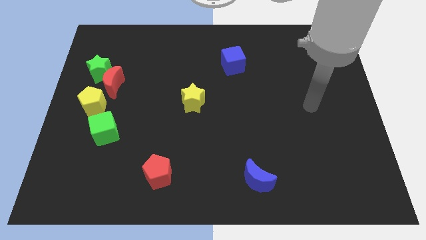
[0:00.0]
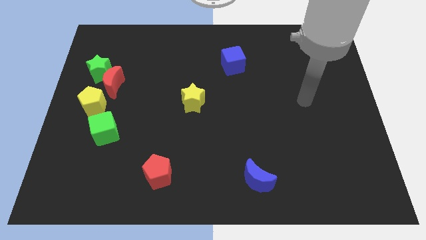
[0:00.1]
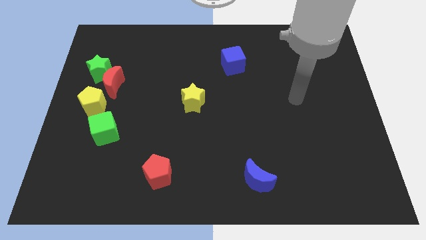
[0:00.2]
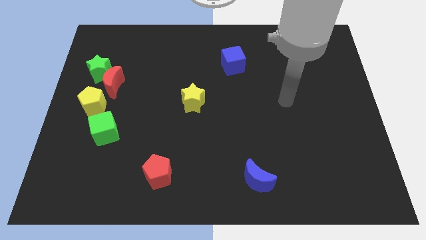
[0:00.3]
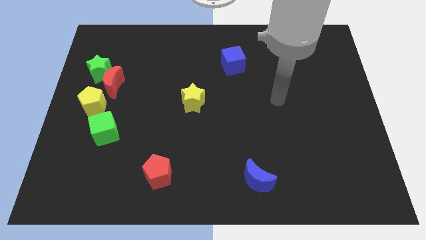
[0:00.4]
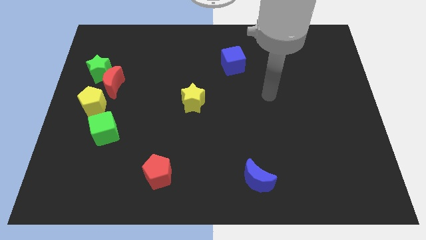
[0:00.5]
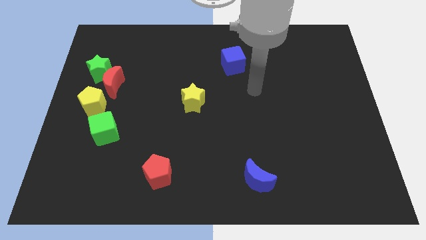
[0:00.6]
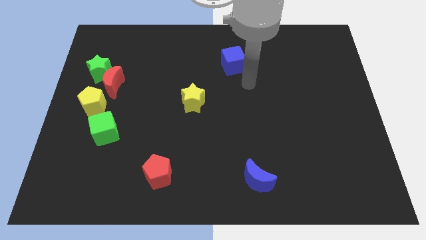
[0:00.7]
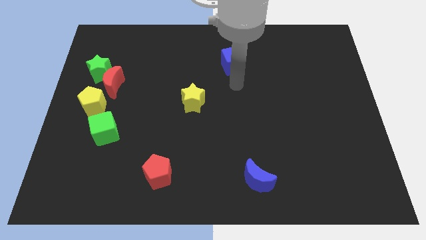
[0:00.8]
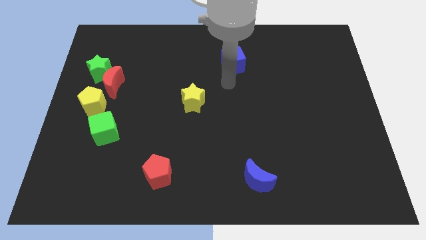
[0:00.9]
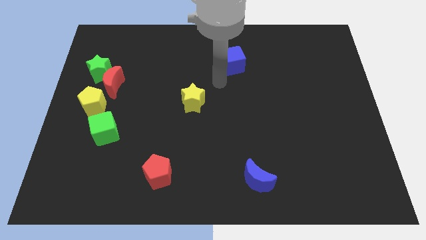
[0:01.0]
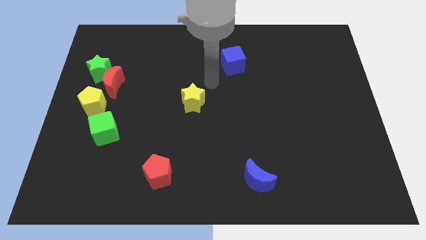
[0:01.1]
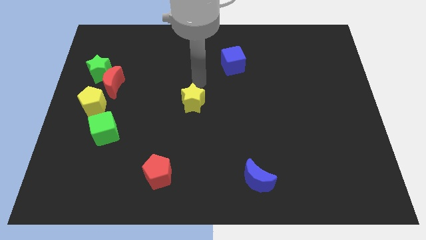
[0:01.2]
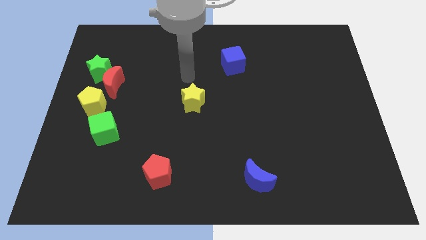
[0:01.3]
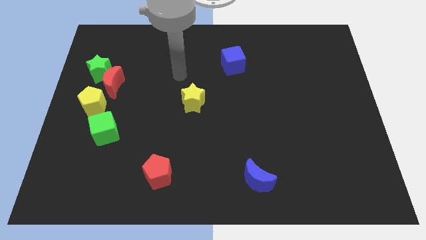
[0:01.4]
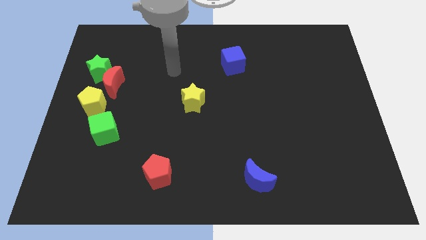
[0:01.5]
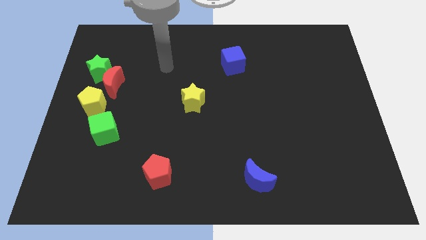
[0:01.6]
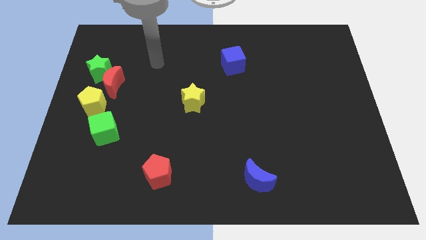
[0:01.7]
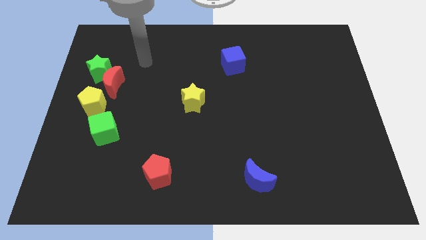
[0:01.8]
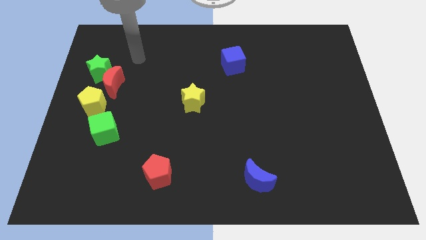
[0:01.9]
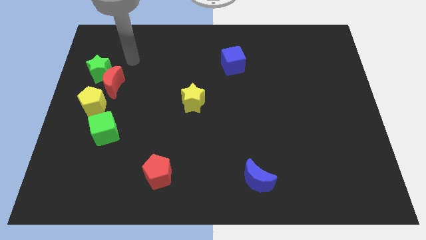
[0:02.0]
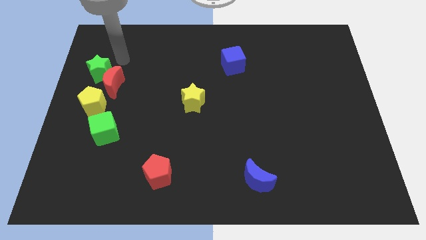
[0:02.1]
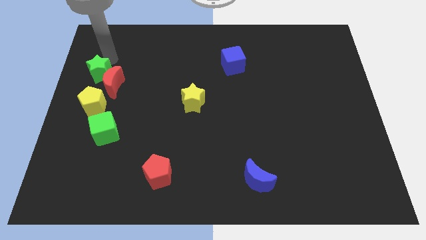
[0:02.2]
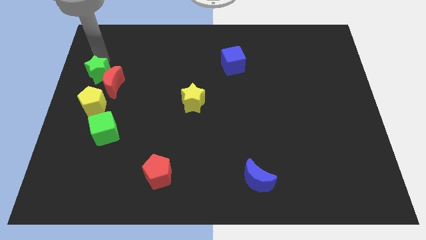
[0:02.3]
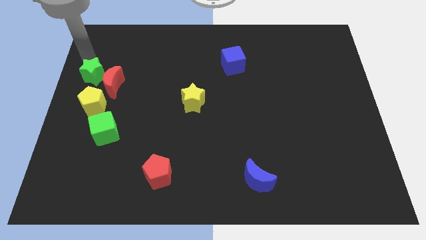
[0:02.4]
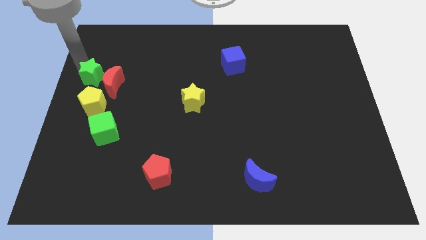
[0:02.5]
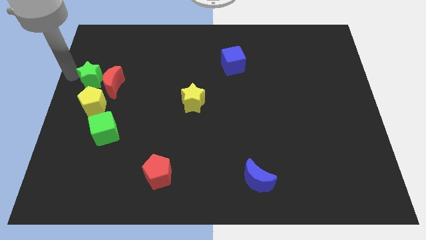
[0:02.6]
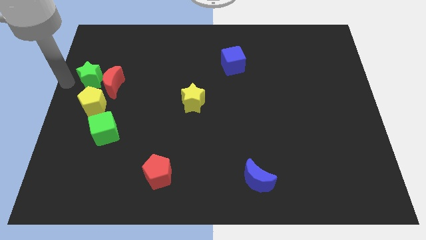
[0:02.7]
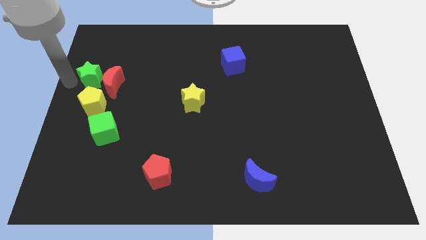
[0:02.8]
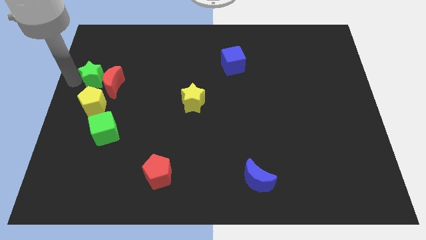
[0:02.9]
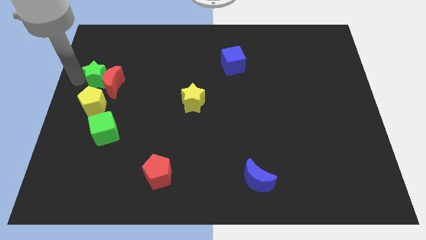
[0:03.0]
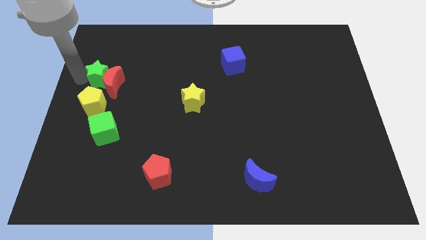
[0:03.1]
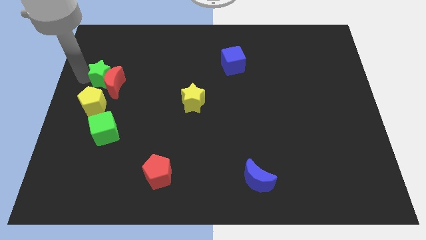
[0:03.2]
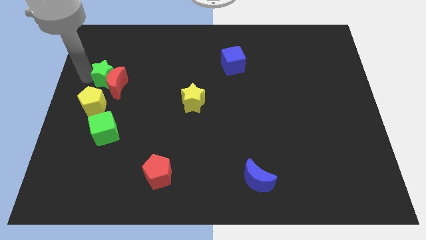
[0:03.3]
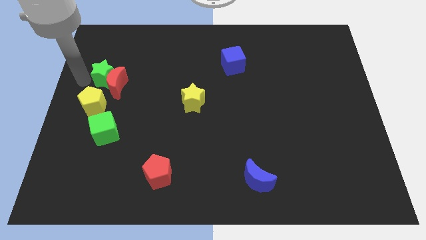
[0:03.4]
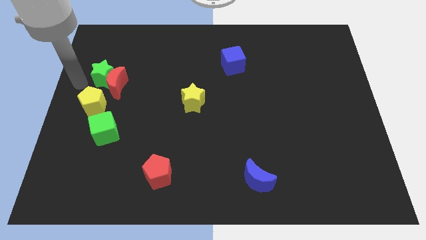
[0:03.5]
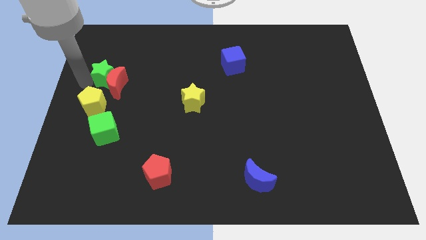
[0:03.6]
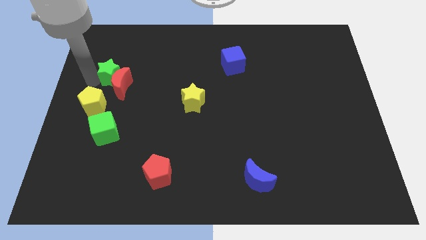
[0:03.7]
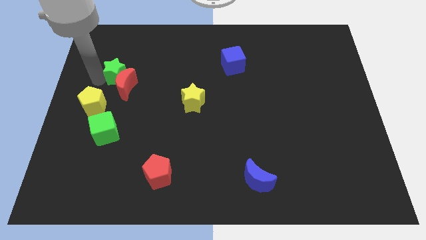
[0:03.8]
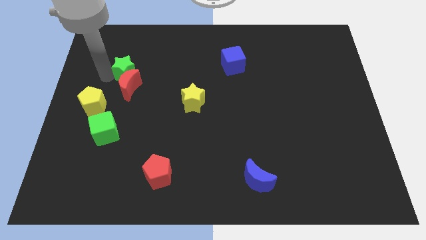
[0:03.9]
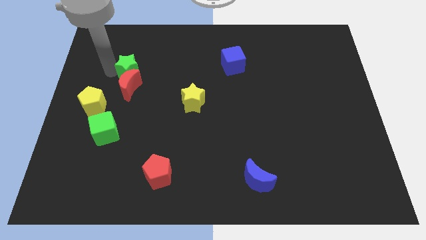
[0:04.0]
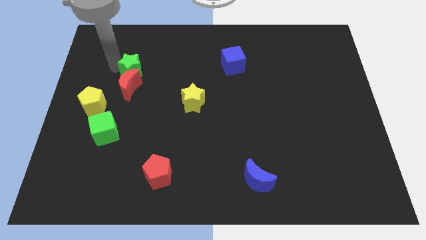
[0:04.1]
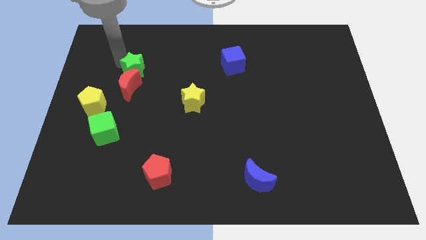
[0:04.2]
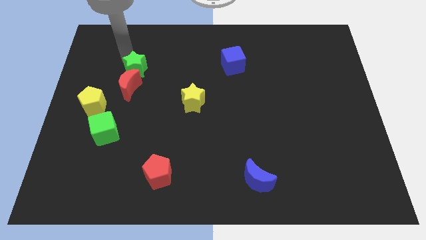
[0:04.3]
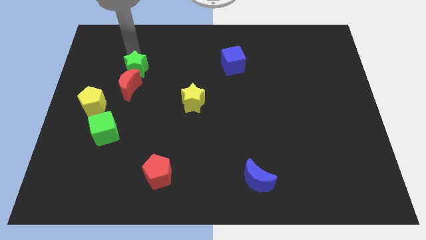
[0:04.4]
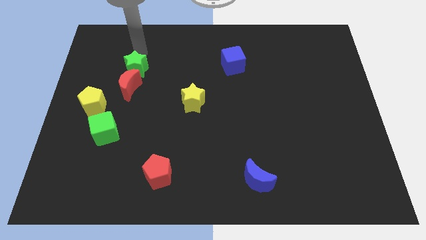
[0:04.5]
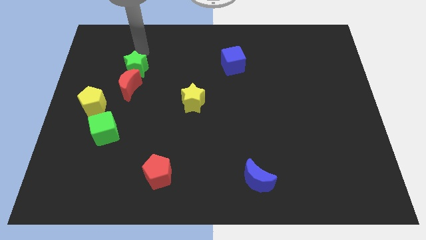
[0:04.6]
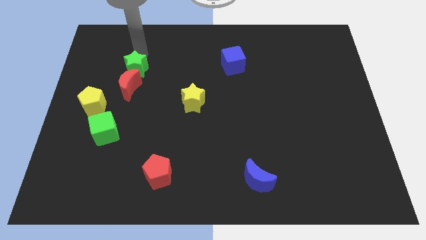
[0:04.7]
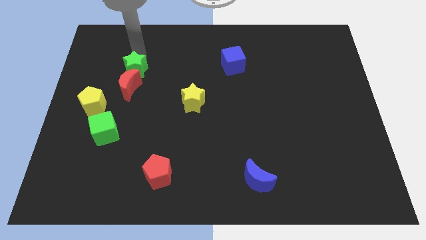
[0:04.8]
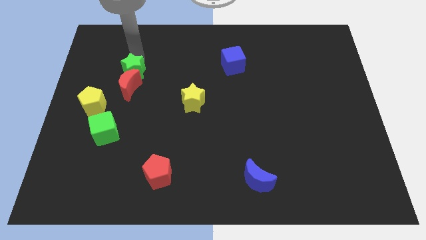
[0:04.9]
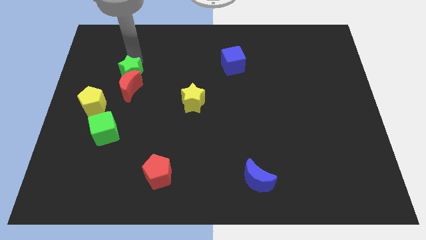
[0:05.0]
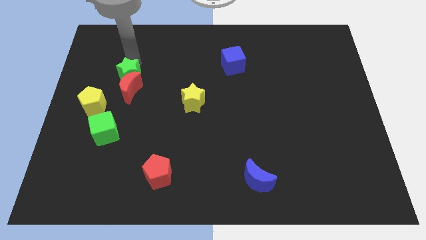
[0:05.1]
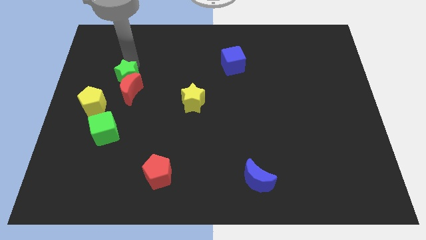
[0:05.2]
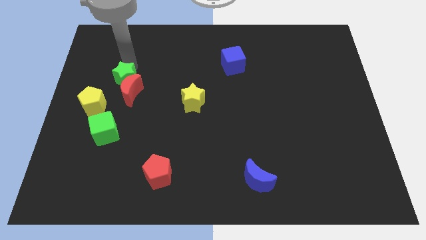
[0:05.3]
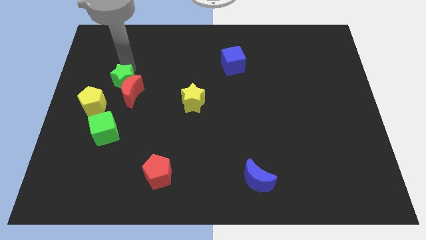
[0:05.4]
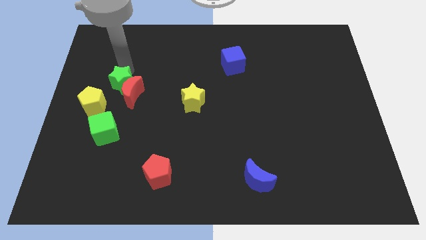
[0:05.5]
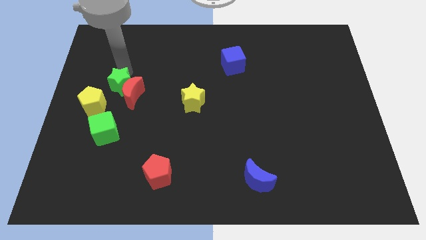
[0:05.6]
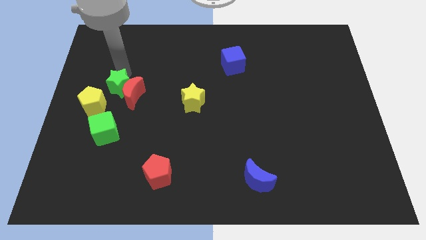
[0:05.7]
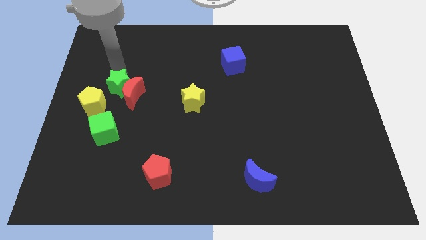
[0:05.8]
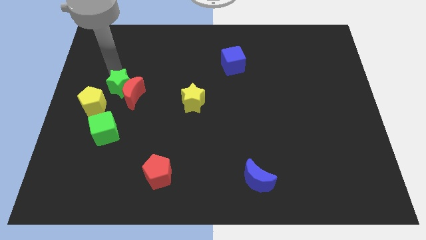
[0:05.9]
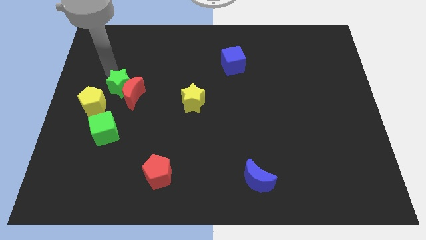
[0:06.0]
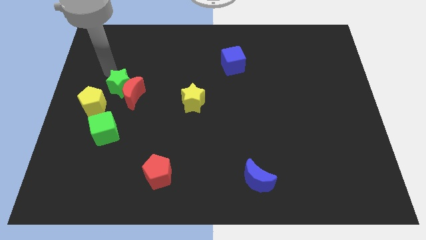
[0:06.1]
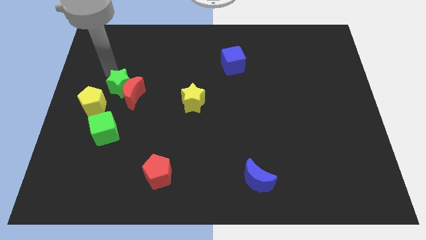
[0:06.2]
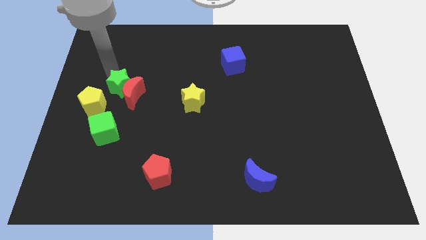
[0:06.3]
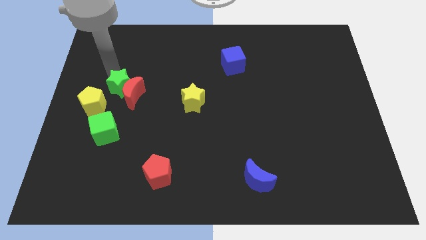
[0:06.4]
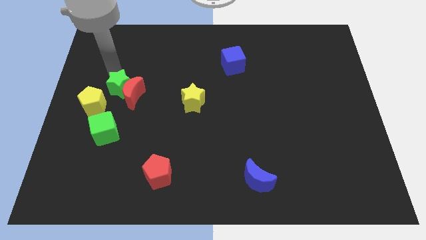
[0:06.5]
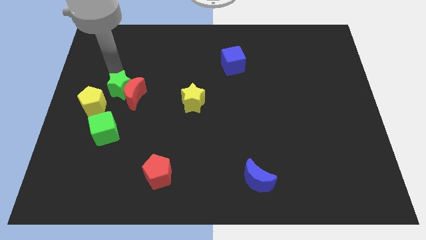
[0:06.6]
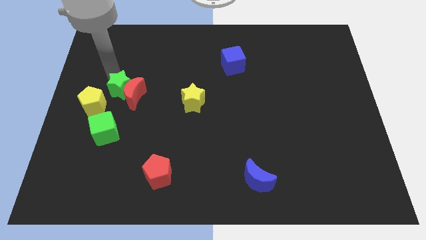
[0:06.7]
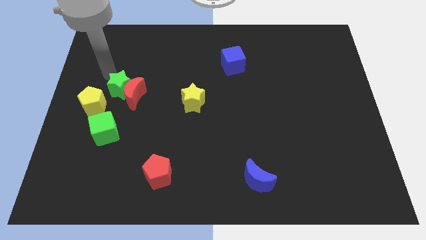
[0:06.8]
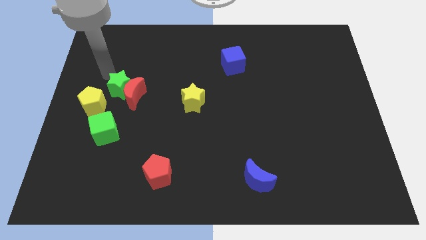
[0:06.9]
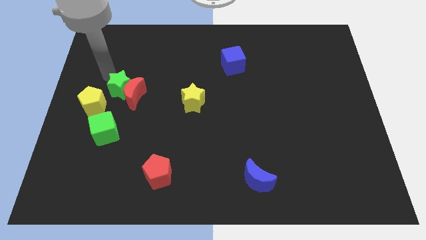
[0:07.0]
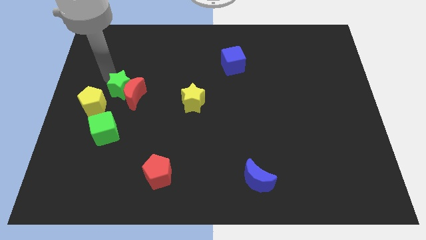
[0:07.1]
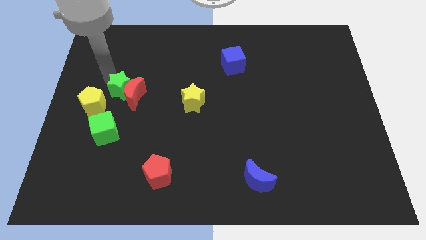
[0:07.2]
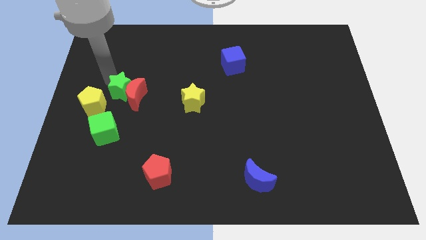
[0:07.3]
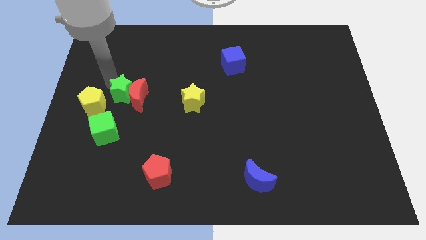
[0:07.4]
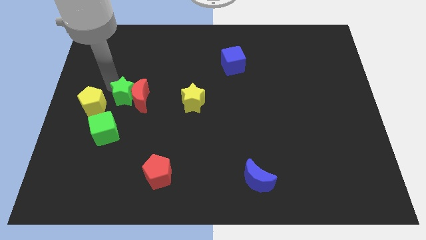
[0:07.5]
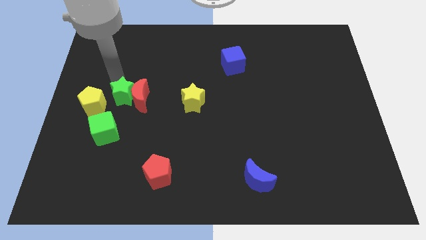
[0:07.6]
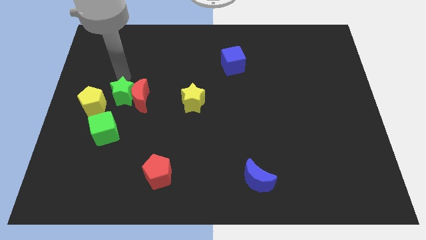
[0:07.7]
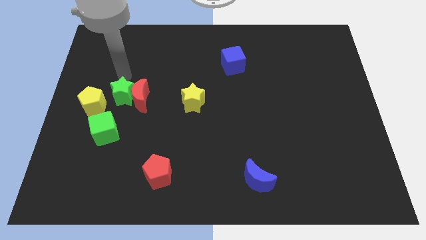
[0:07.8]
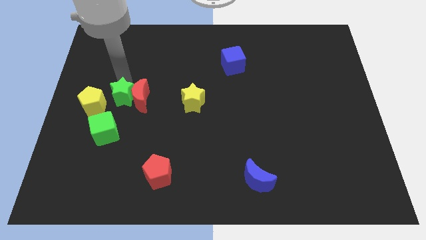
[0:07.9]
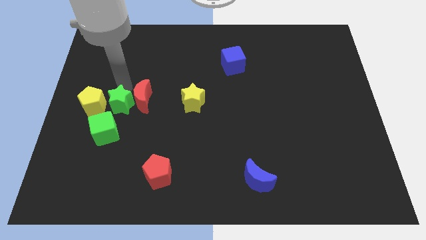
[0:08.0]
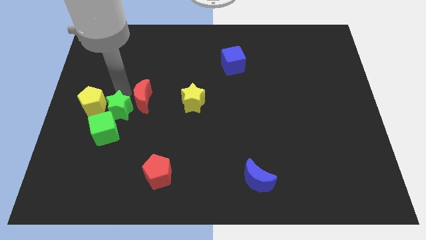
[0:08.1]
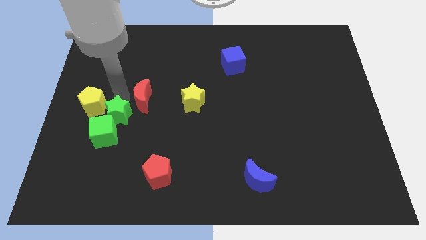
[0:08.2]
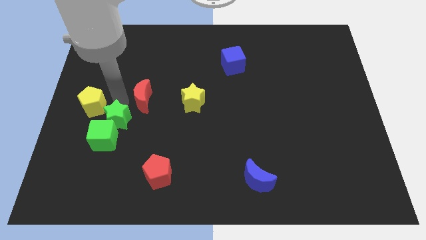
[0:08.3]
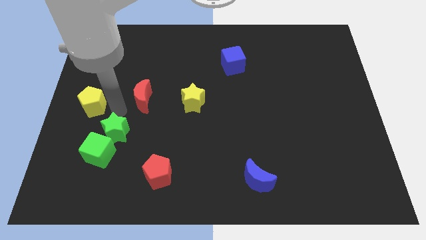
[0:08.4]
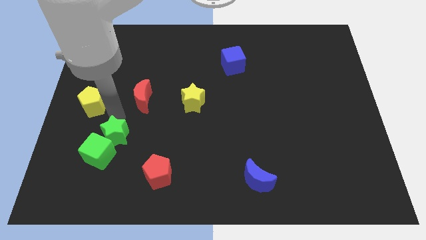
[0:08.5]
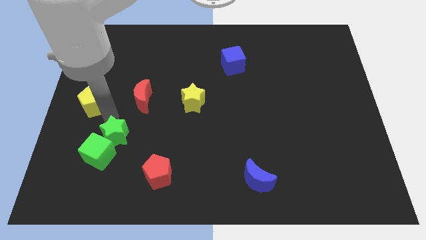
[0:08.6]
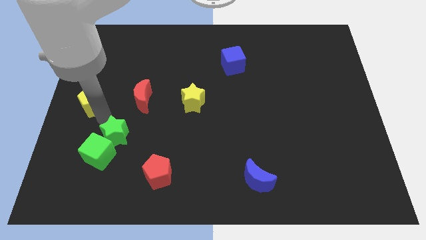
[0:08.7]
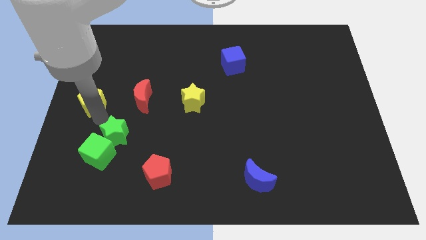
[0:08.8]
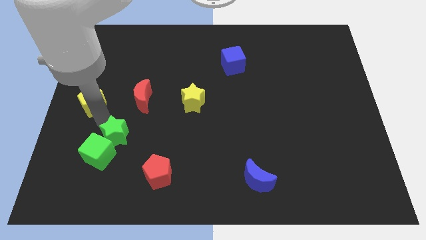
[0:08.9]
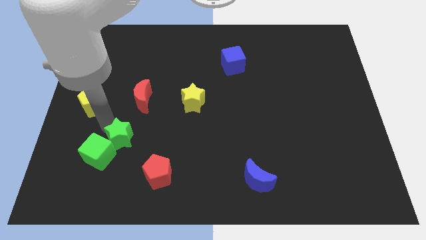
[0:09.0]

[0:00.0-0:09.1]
move the green star to the top left of the red pentagon
